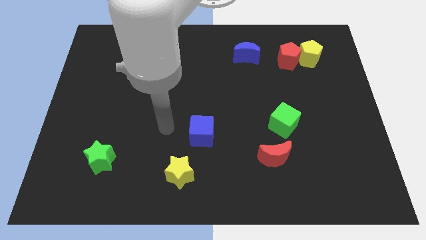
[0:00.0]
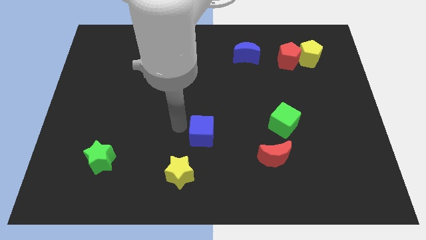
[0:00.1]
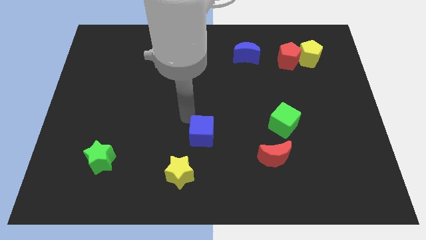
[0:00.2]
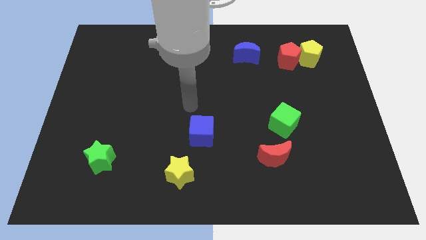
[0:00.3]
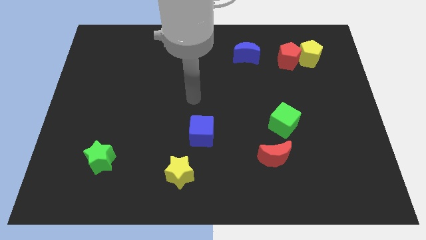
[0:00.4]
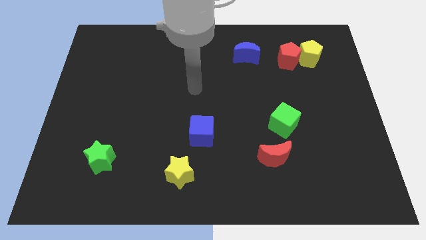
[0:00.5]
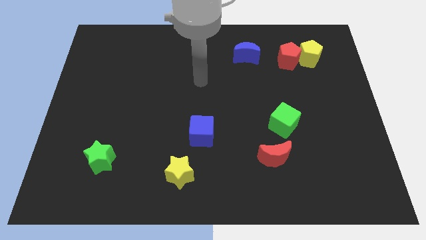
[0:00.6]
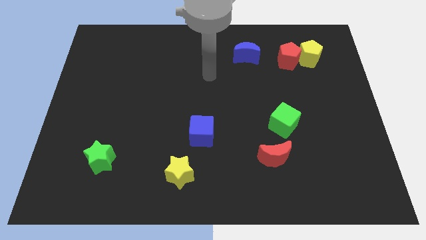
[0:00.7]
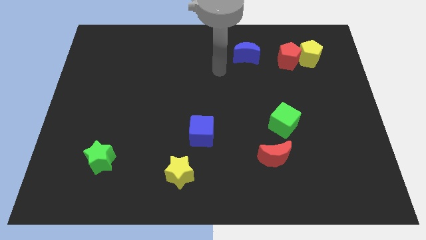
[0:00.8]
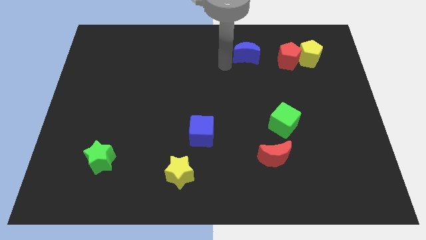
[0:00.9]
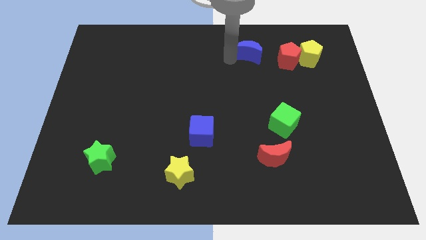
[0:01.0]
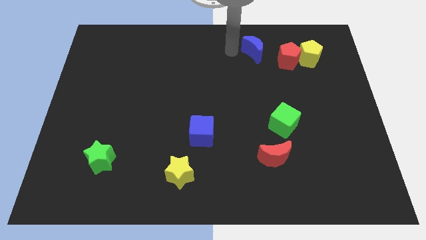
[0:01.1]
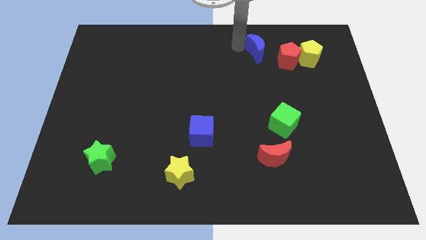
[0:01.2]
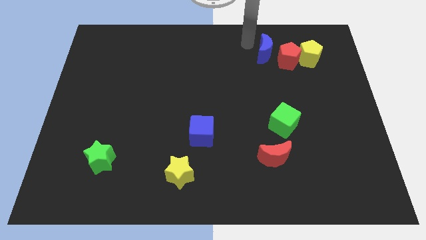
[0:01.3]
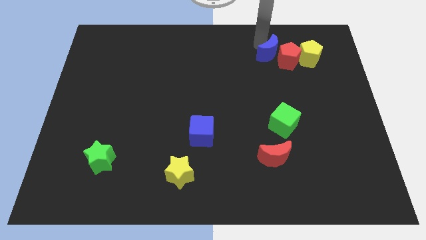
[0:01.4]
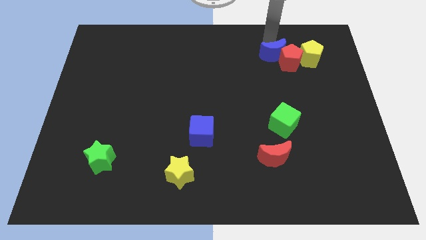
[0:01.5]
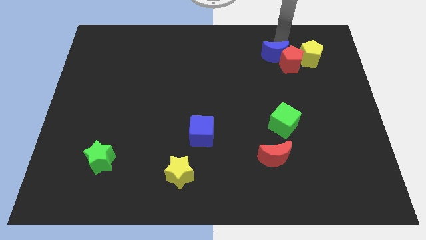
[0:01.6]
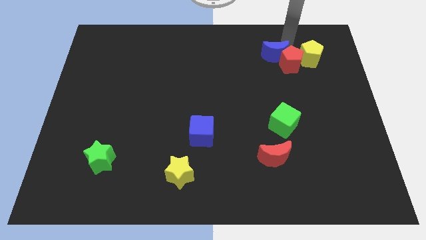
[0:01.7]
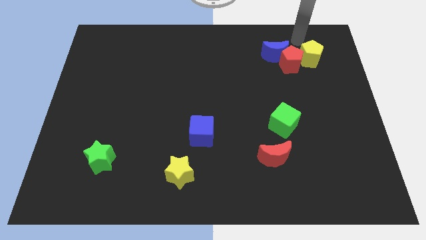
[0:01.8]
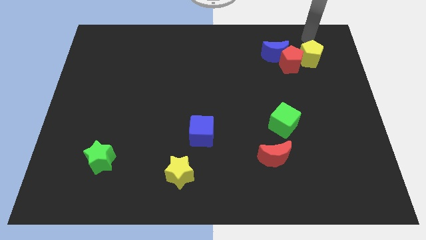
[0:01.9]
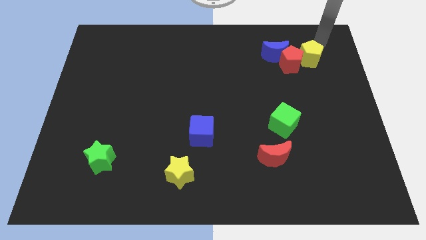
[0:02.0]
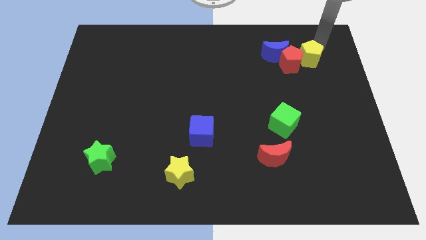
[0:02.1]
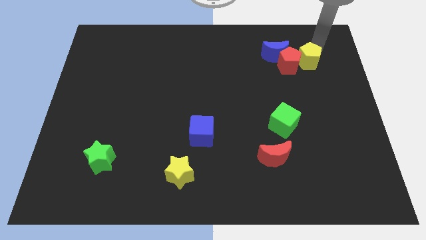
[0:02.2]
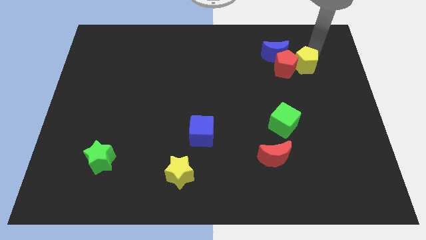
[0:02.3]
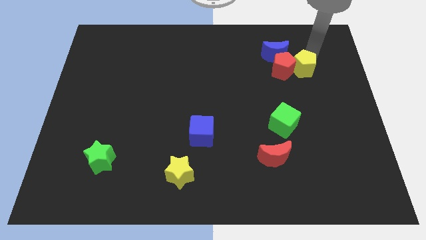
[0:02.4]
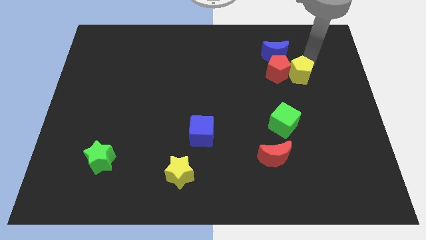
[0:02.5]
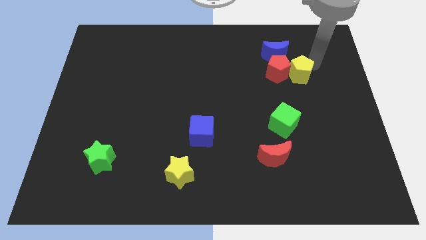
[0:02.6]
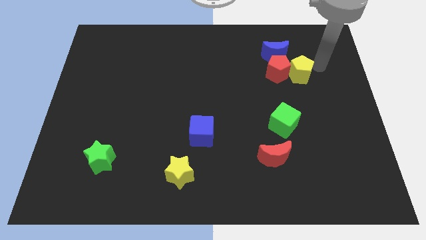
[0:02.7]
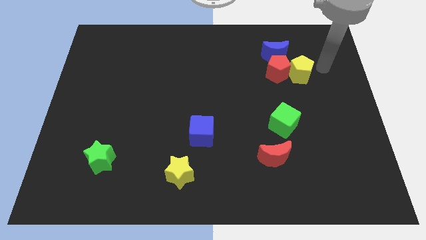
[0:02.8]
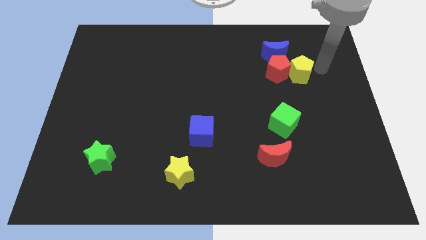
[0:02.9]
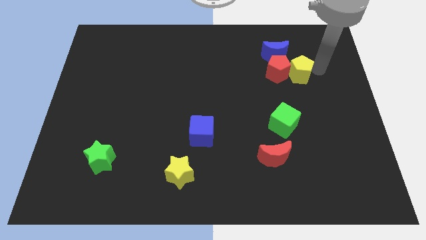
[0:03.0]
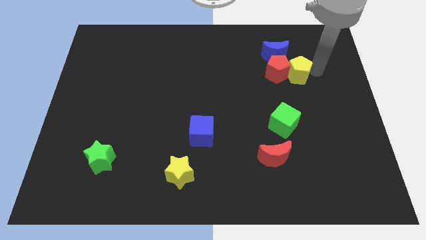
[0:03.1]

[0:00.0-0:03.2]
slide the yellow pentagon a little downwards and to the left

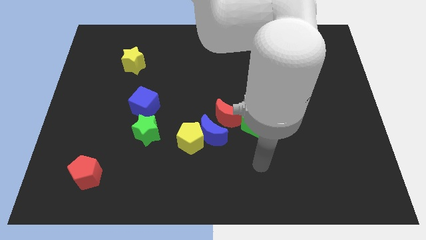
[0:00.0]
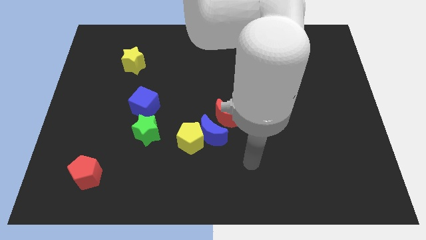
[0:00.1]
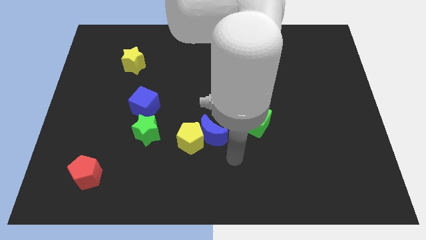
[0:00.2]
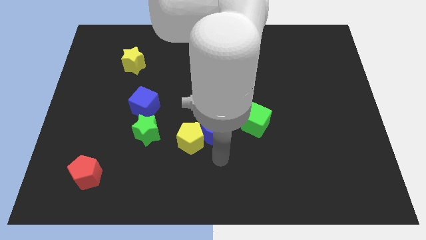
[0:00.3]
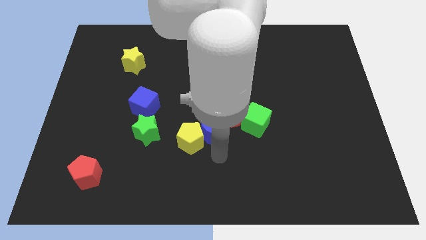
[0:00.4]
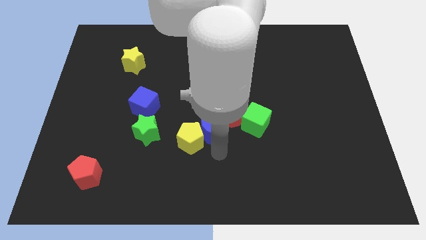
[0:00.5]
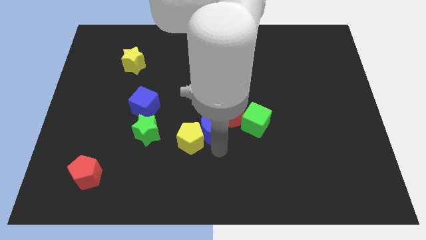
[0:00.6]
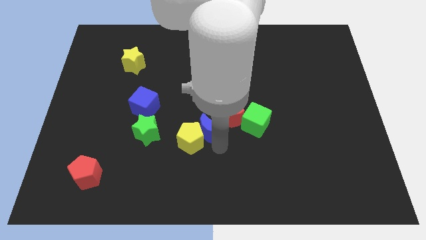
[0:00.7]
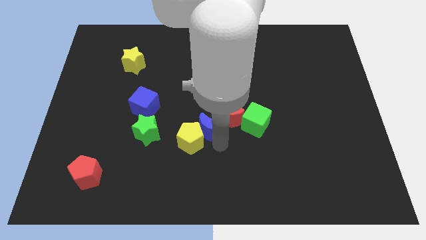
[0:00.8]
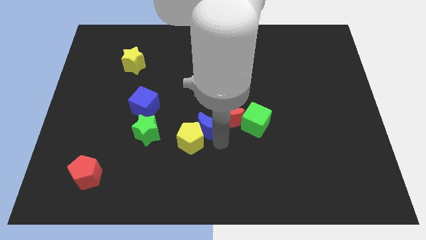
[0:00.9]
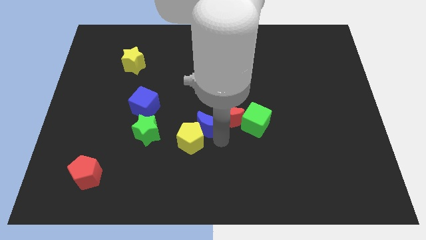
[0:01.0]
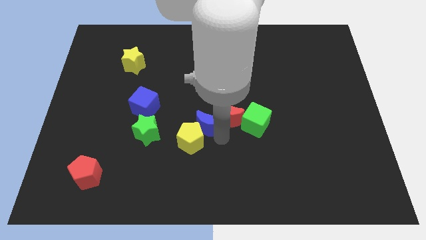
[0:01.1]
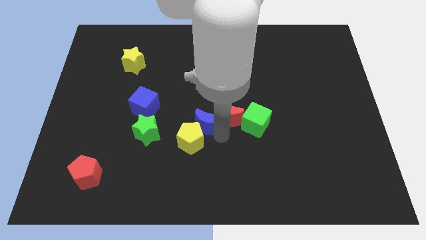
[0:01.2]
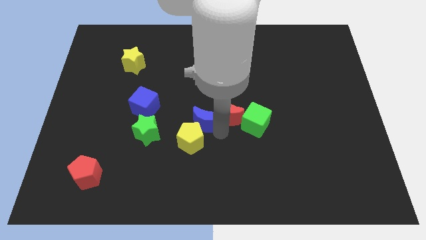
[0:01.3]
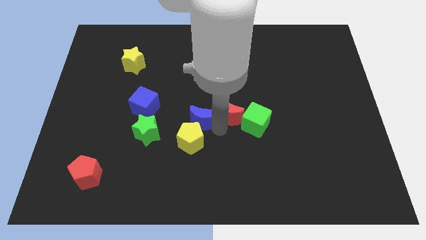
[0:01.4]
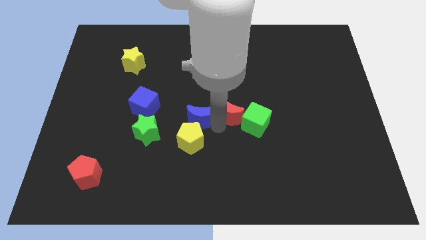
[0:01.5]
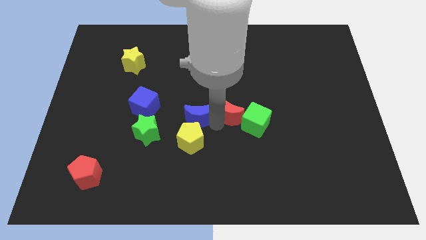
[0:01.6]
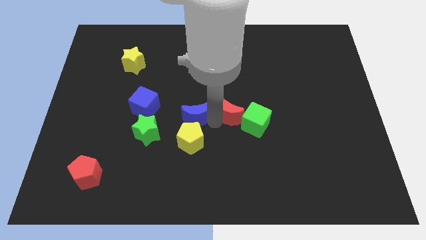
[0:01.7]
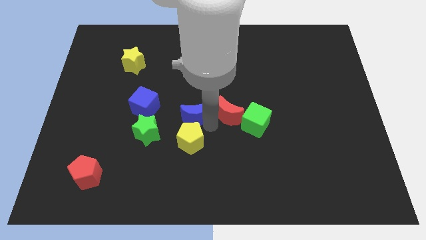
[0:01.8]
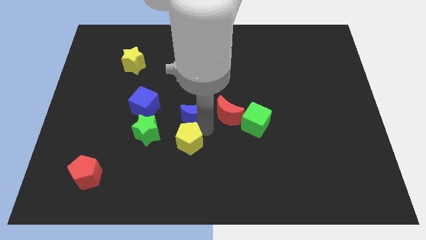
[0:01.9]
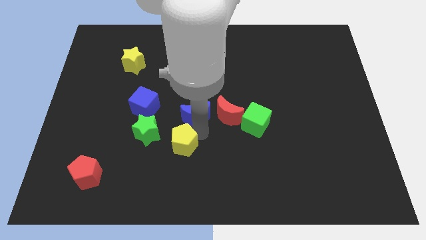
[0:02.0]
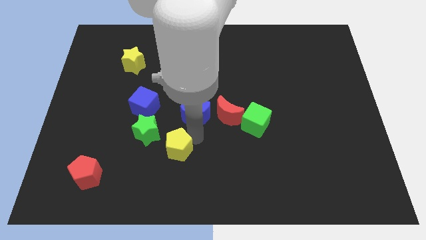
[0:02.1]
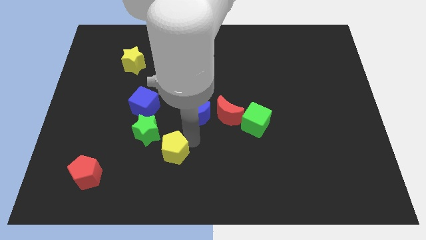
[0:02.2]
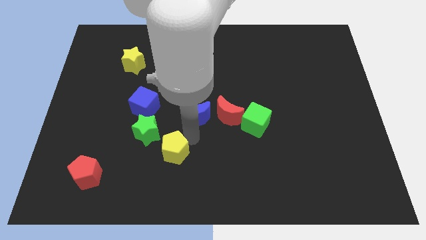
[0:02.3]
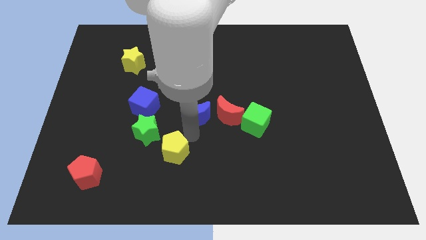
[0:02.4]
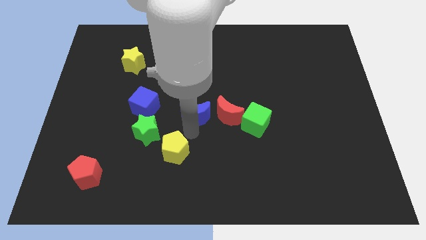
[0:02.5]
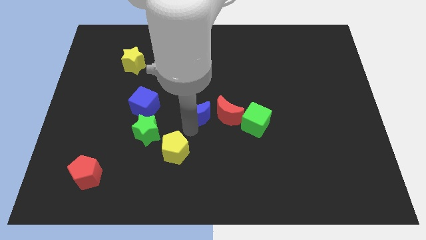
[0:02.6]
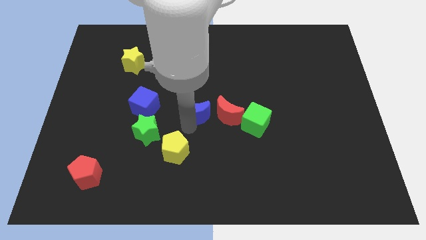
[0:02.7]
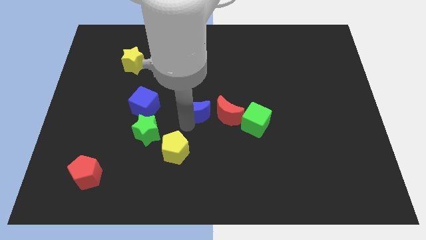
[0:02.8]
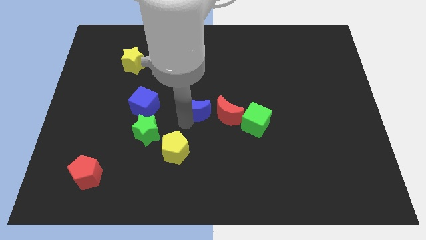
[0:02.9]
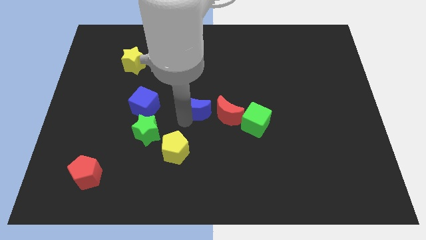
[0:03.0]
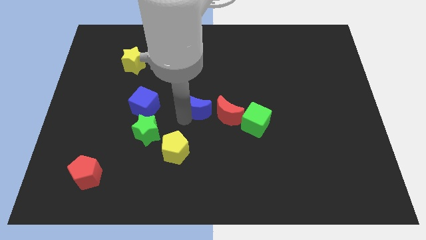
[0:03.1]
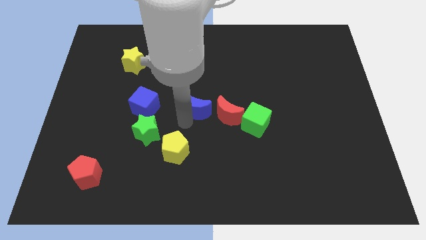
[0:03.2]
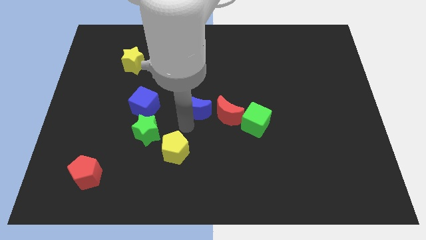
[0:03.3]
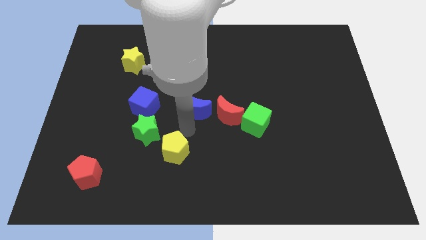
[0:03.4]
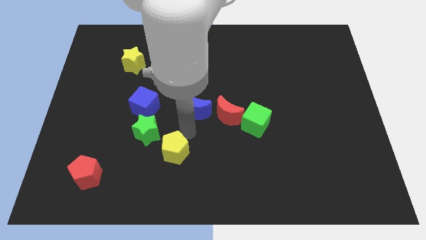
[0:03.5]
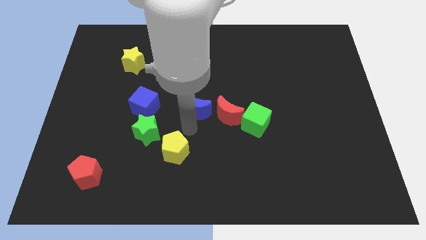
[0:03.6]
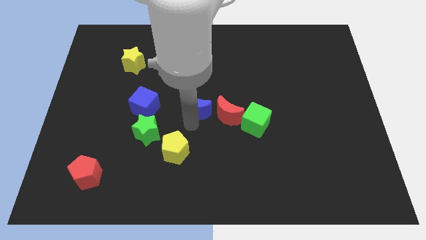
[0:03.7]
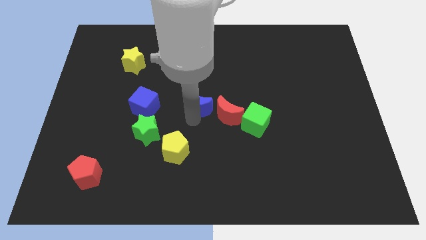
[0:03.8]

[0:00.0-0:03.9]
move the blue moon a little up

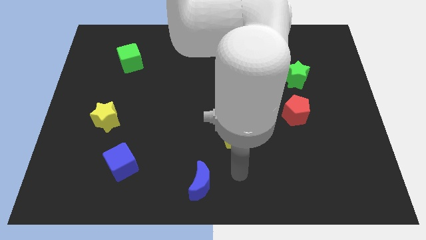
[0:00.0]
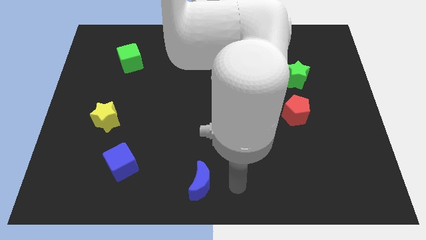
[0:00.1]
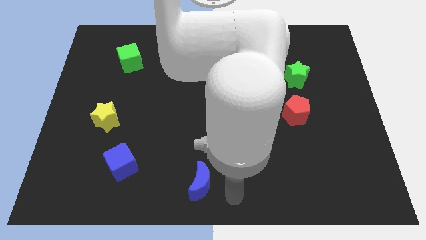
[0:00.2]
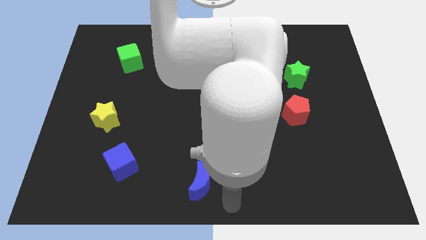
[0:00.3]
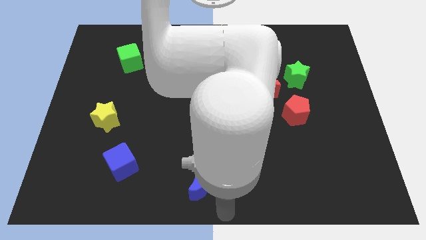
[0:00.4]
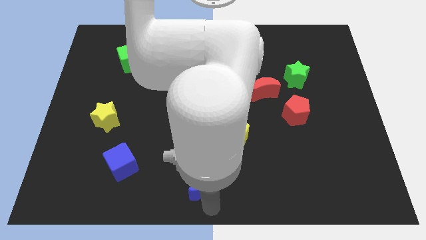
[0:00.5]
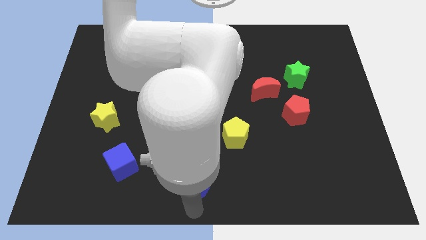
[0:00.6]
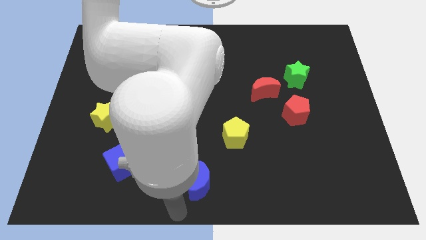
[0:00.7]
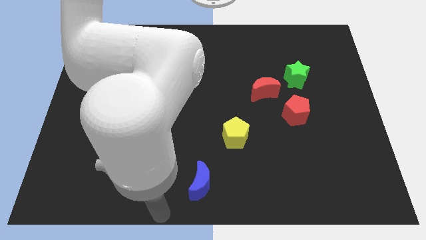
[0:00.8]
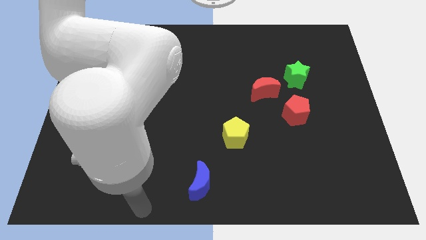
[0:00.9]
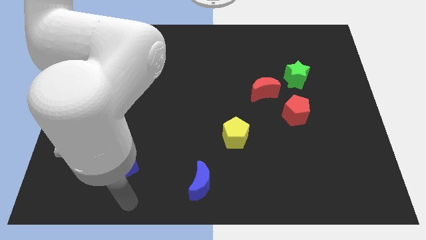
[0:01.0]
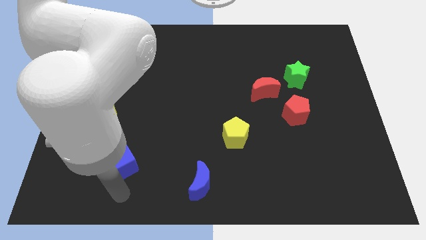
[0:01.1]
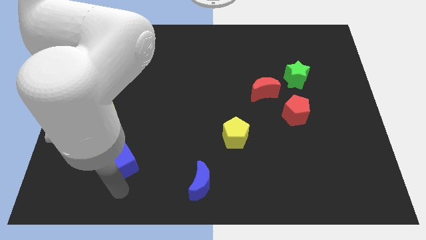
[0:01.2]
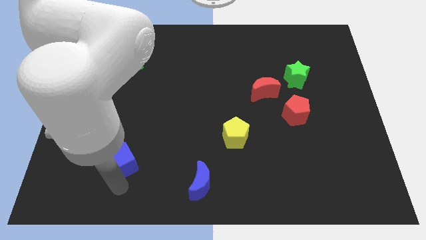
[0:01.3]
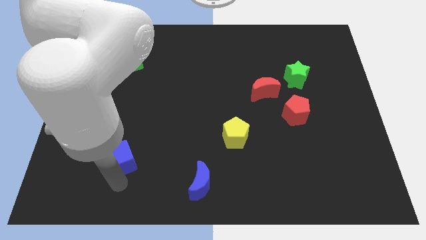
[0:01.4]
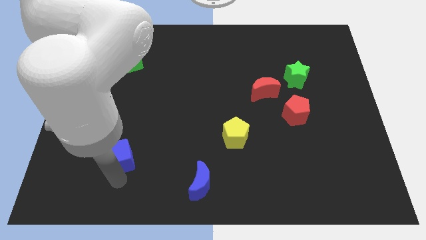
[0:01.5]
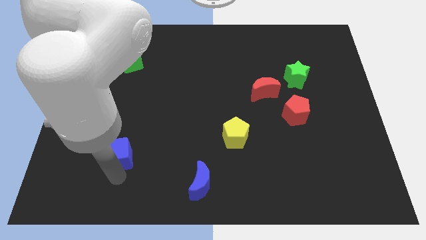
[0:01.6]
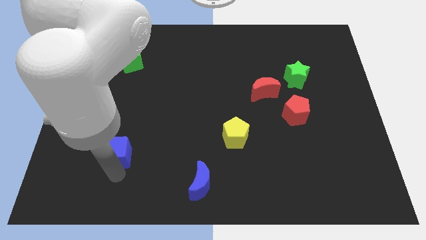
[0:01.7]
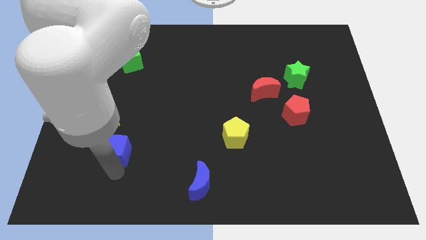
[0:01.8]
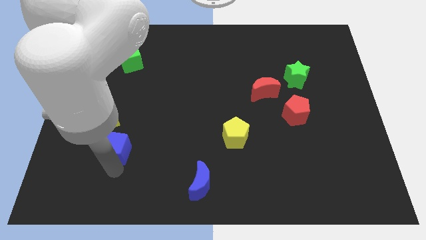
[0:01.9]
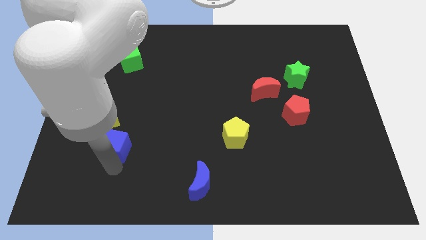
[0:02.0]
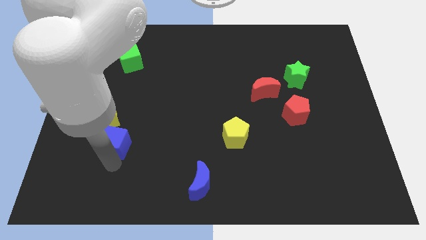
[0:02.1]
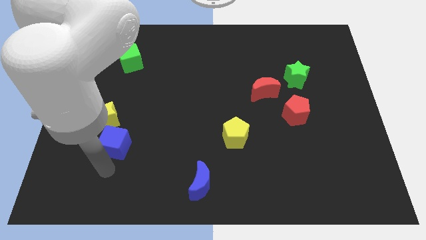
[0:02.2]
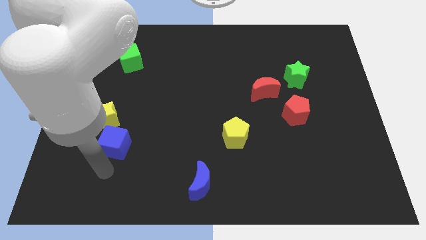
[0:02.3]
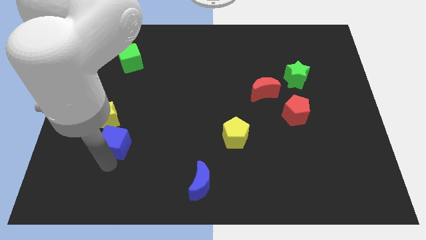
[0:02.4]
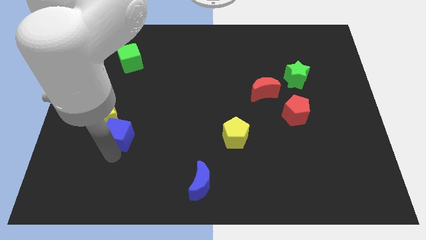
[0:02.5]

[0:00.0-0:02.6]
move the blue cube up a little bit
